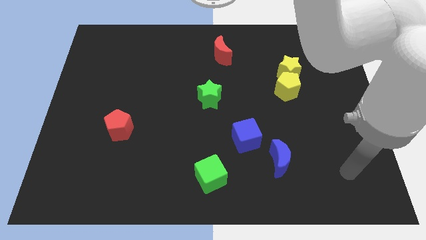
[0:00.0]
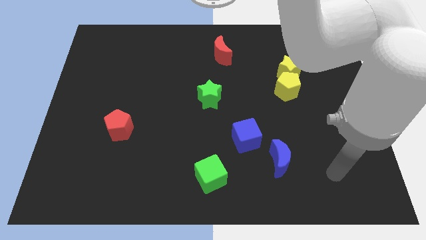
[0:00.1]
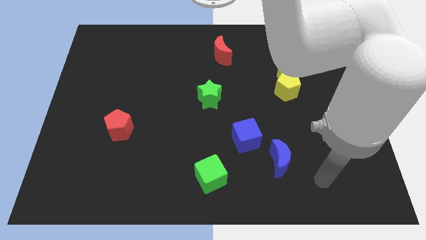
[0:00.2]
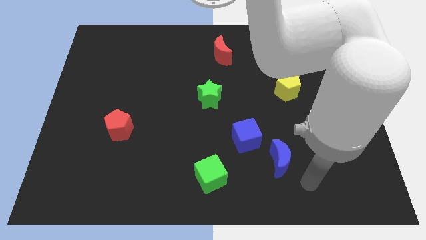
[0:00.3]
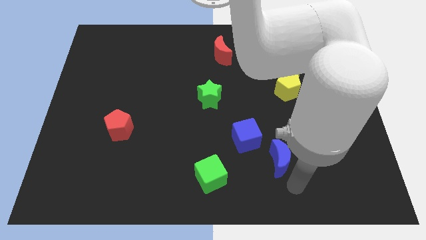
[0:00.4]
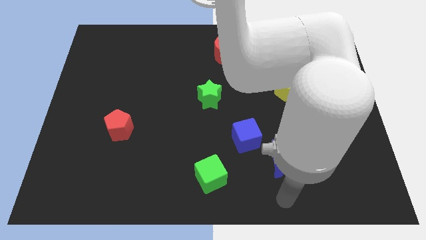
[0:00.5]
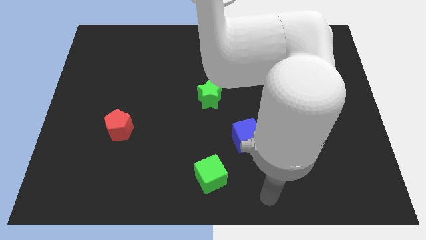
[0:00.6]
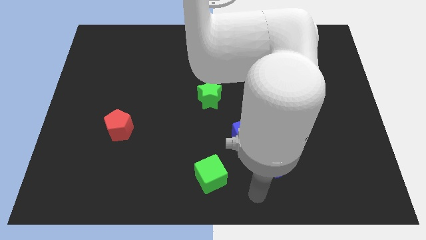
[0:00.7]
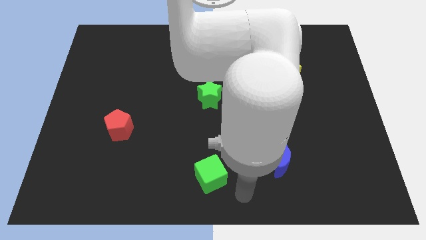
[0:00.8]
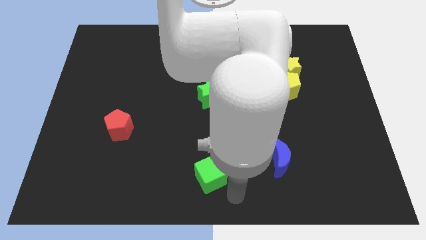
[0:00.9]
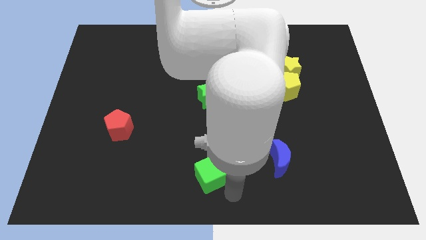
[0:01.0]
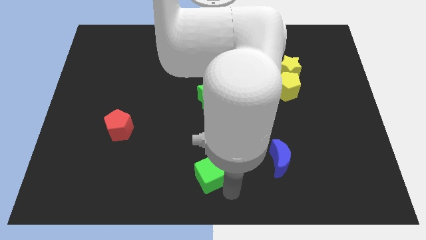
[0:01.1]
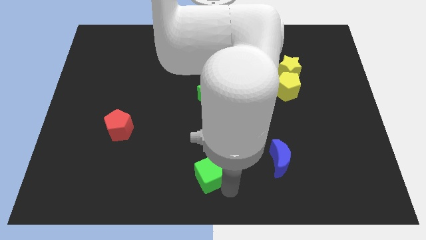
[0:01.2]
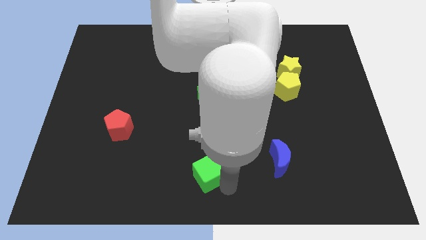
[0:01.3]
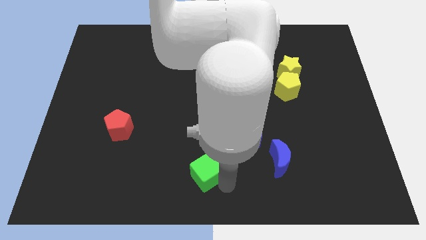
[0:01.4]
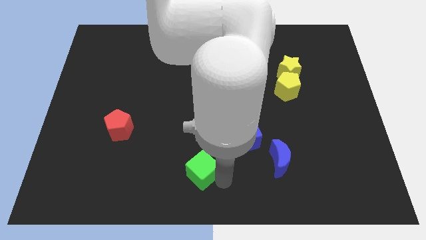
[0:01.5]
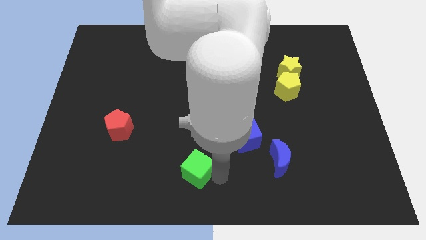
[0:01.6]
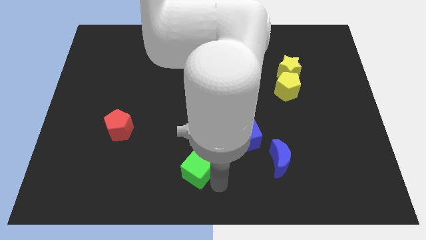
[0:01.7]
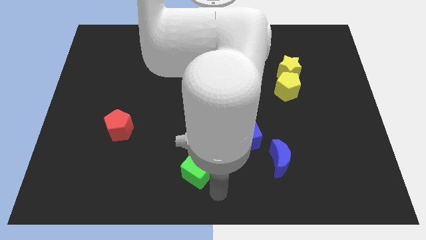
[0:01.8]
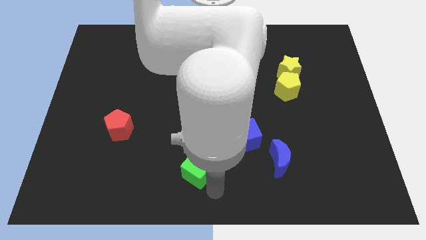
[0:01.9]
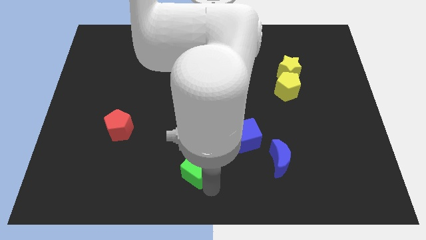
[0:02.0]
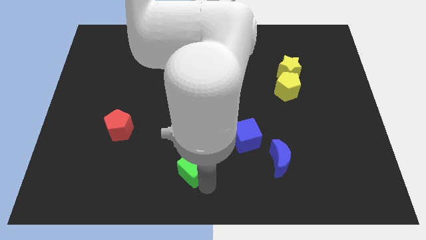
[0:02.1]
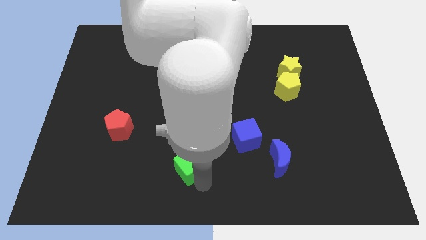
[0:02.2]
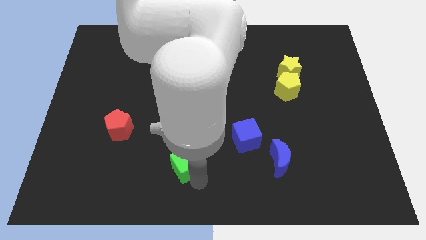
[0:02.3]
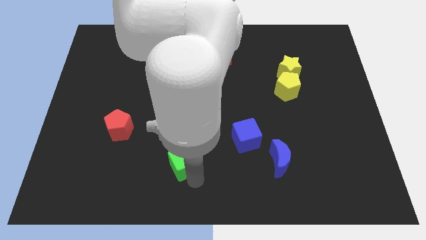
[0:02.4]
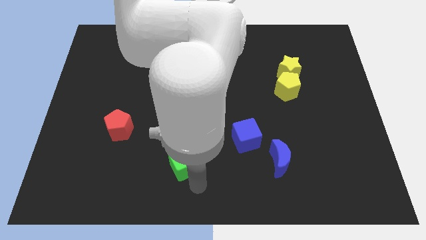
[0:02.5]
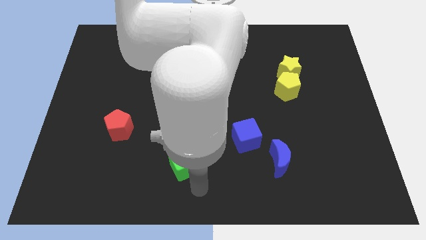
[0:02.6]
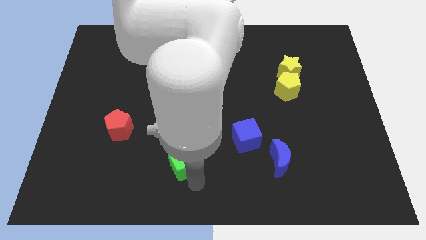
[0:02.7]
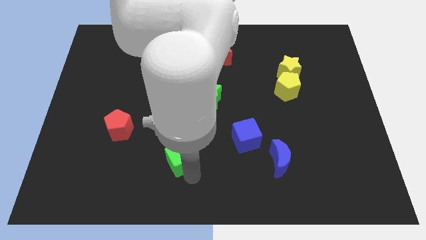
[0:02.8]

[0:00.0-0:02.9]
move the green cube a little upwards and to the left

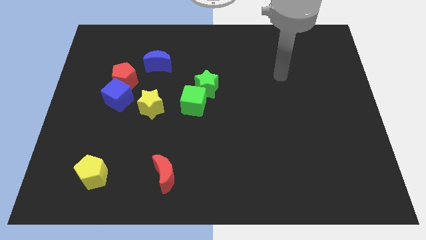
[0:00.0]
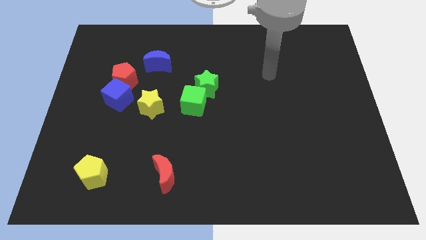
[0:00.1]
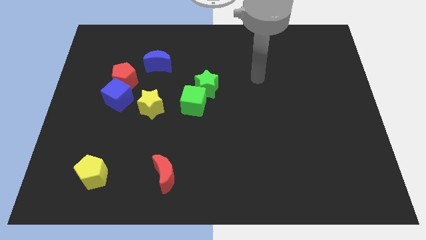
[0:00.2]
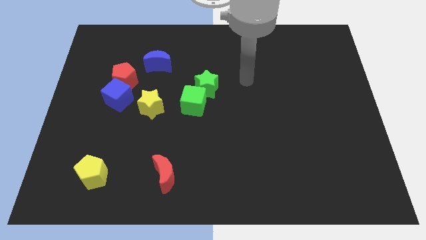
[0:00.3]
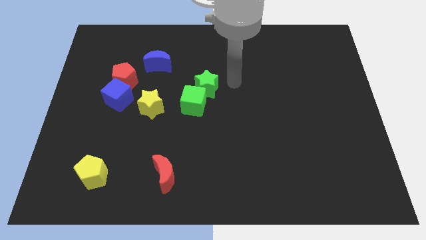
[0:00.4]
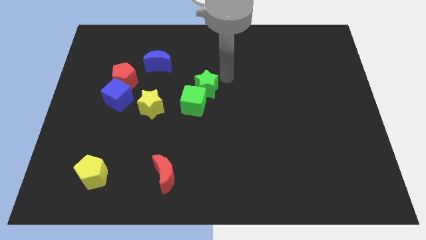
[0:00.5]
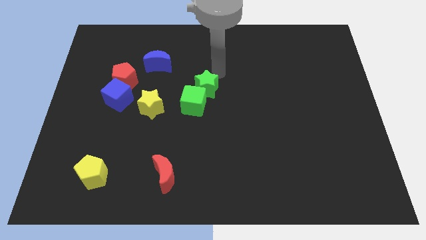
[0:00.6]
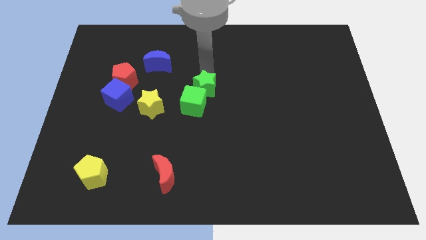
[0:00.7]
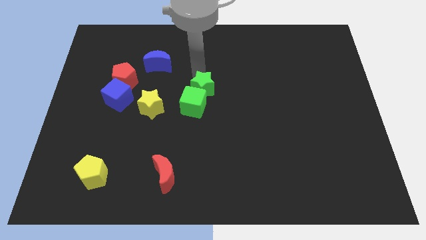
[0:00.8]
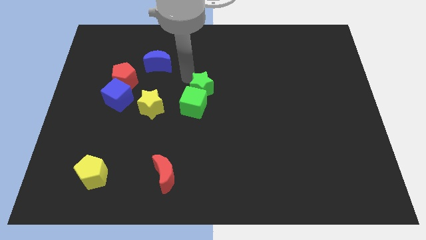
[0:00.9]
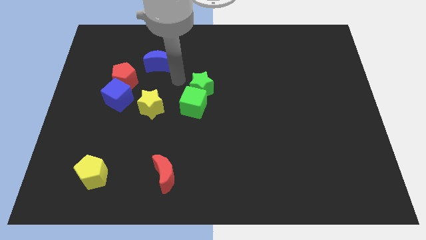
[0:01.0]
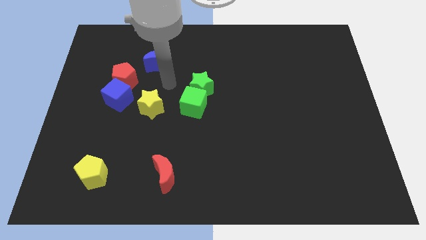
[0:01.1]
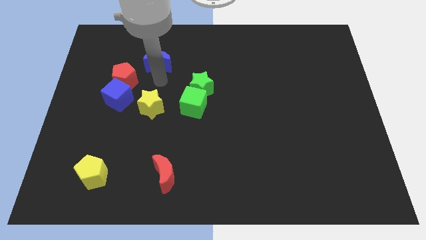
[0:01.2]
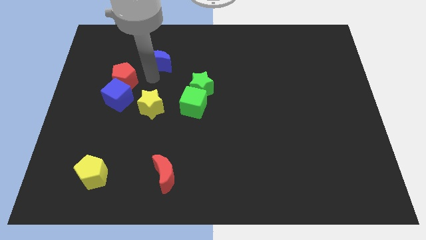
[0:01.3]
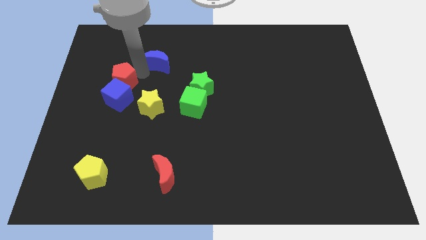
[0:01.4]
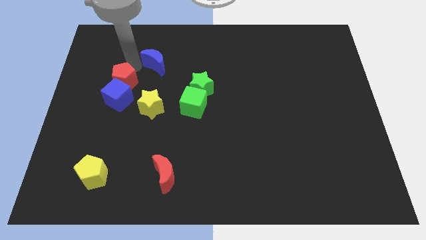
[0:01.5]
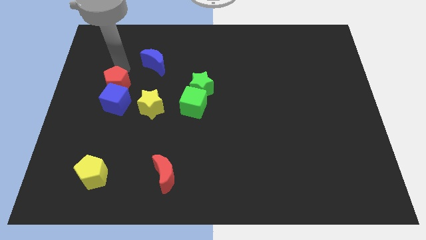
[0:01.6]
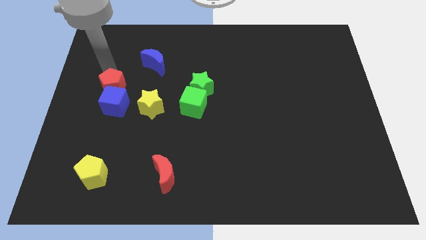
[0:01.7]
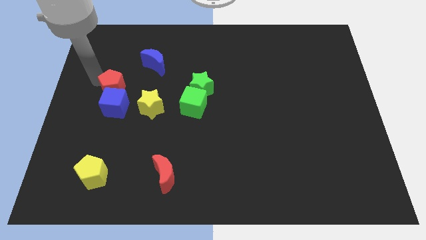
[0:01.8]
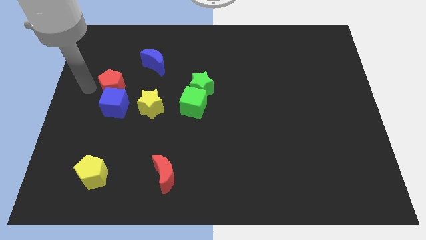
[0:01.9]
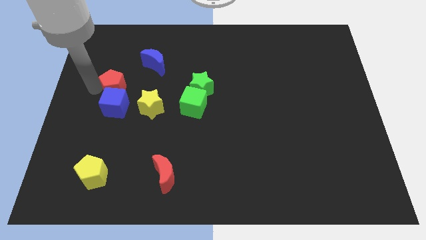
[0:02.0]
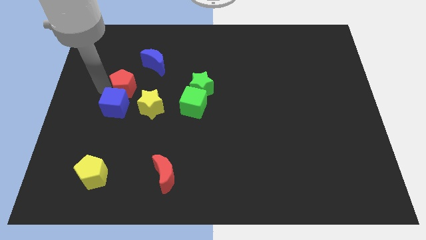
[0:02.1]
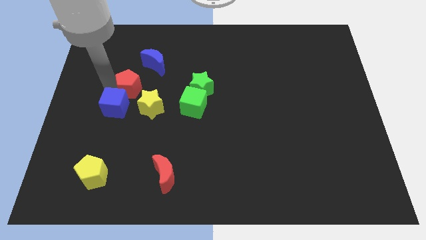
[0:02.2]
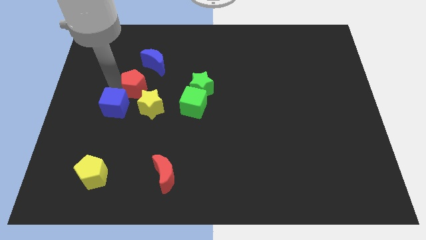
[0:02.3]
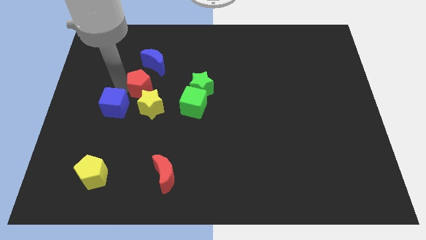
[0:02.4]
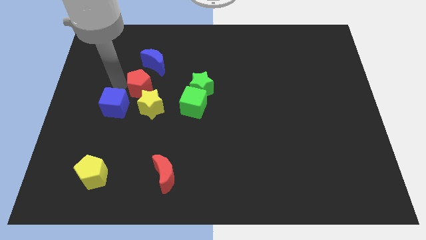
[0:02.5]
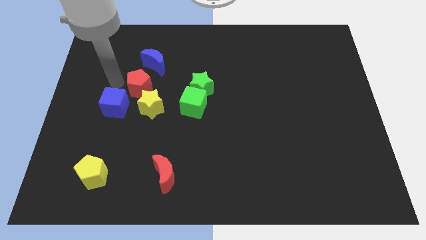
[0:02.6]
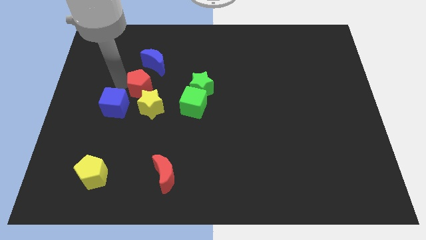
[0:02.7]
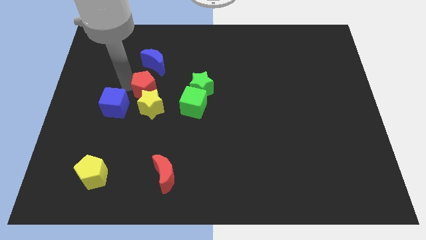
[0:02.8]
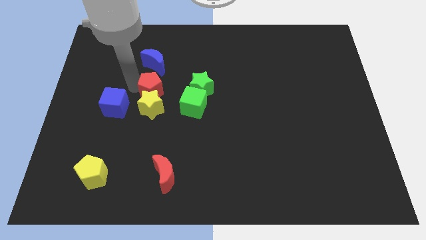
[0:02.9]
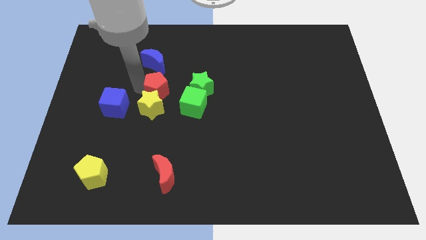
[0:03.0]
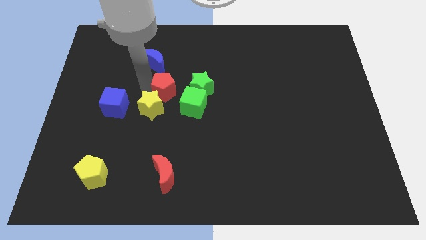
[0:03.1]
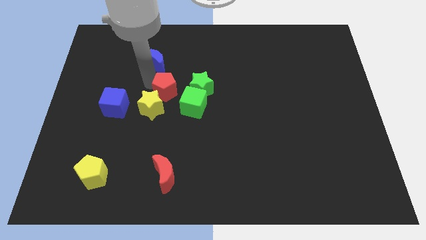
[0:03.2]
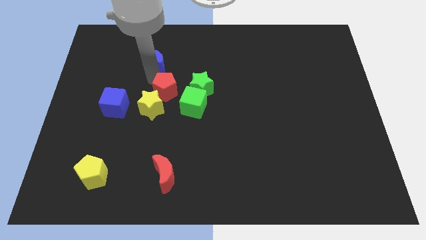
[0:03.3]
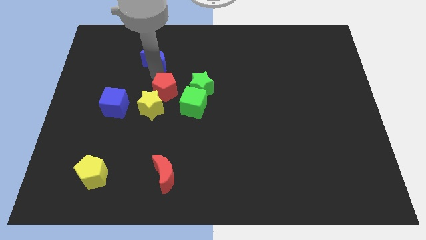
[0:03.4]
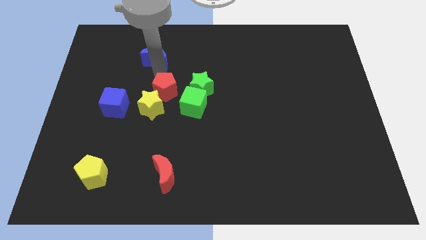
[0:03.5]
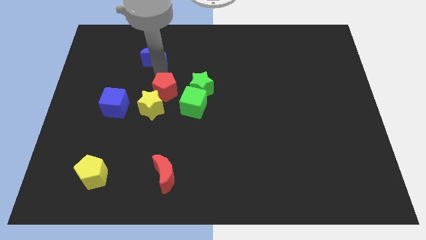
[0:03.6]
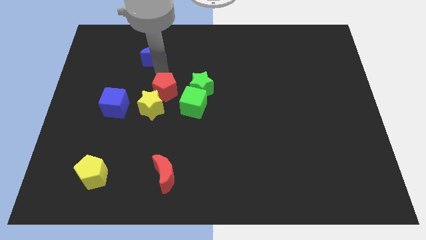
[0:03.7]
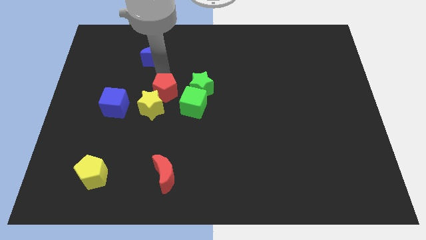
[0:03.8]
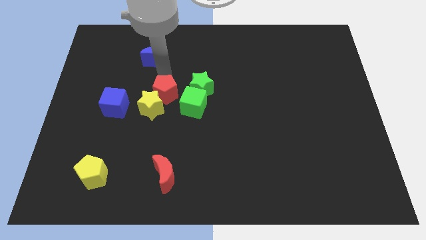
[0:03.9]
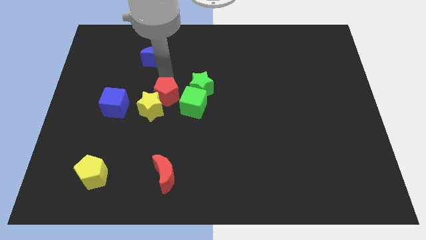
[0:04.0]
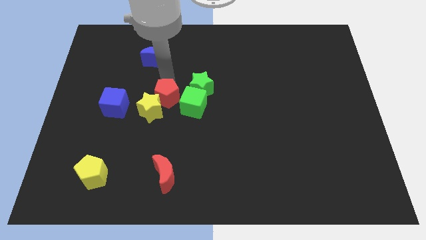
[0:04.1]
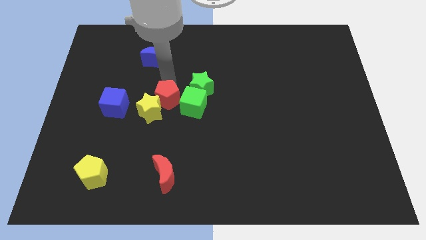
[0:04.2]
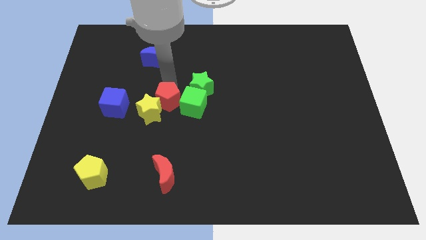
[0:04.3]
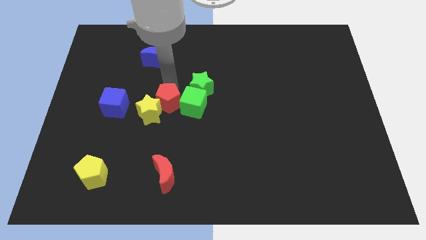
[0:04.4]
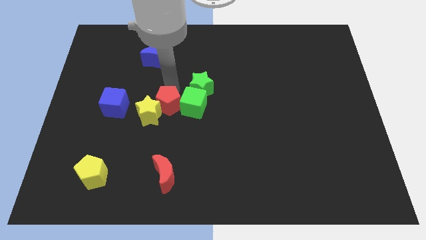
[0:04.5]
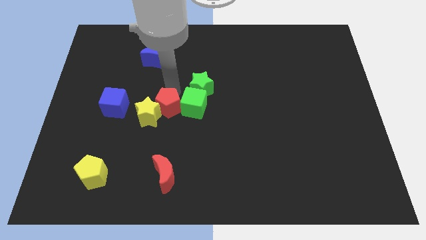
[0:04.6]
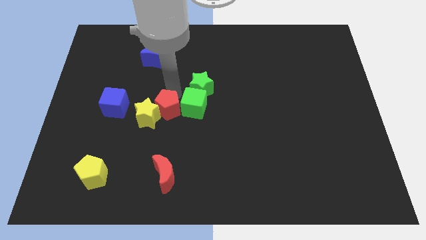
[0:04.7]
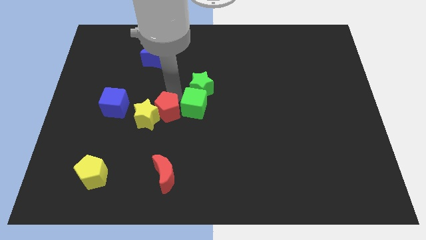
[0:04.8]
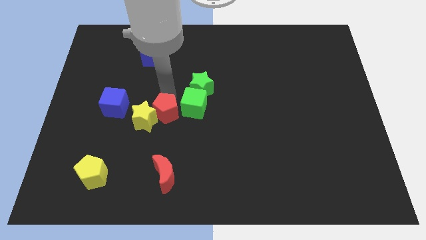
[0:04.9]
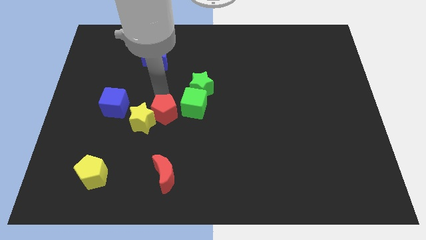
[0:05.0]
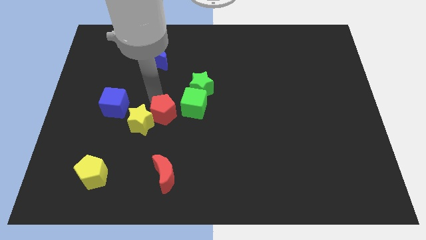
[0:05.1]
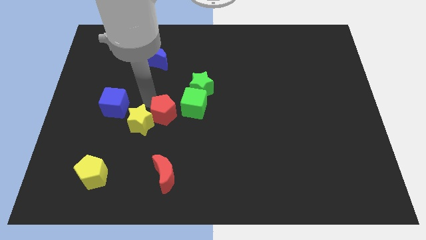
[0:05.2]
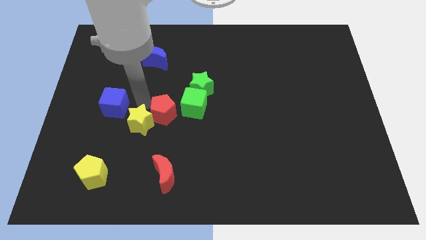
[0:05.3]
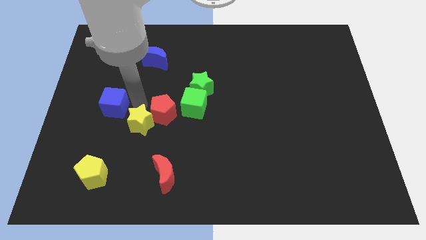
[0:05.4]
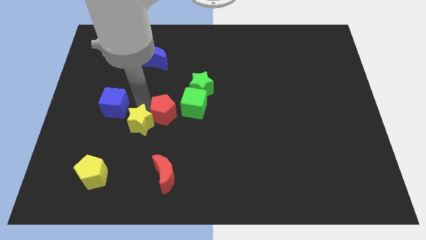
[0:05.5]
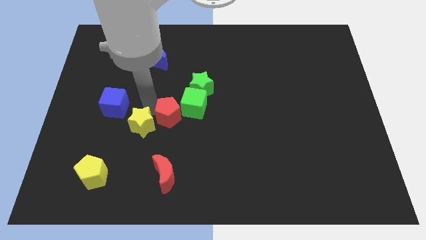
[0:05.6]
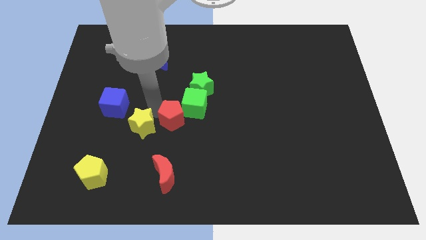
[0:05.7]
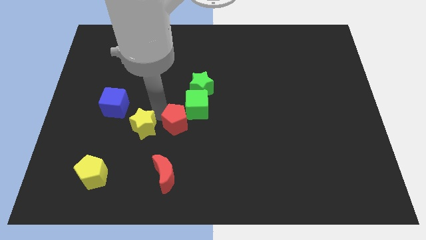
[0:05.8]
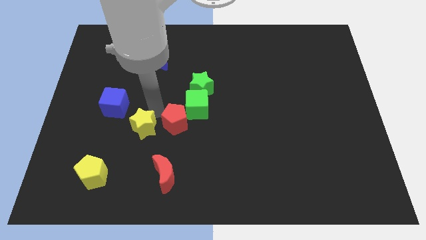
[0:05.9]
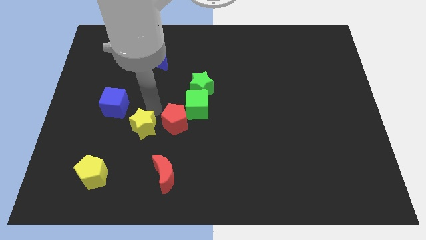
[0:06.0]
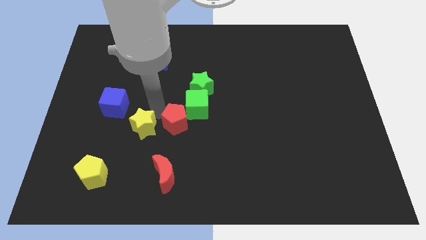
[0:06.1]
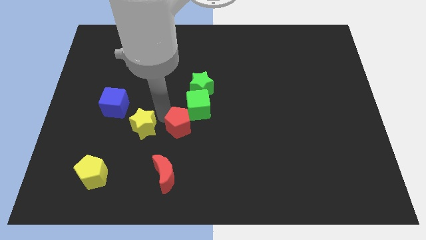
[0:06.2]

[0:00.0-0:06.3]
move the red pentagon downwards and right diagonally
